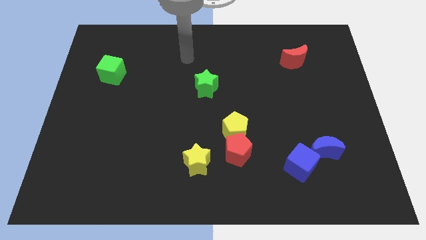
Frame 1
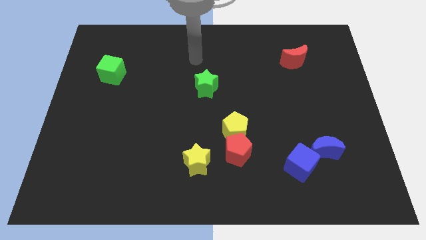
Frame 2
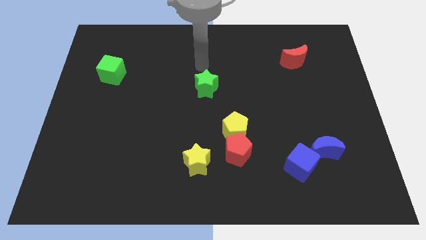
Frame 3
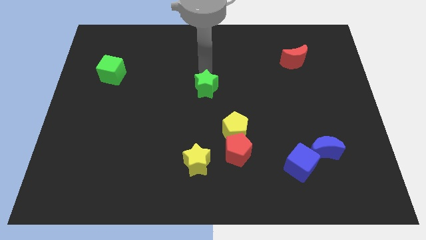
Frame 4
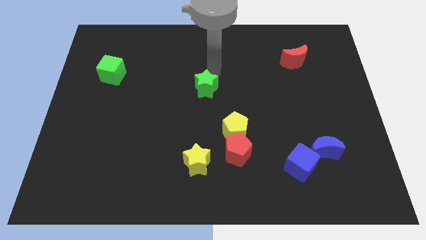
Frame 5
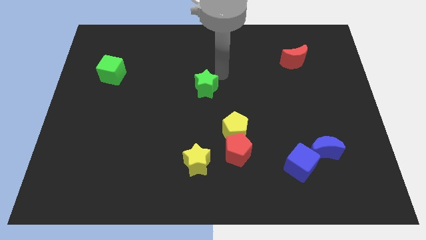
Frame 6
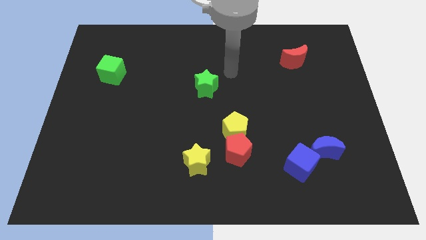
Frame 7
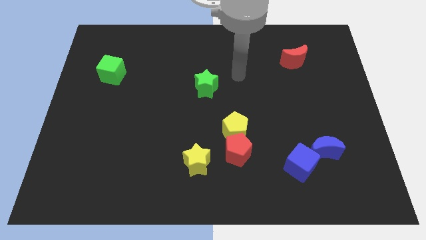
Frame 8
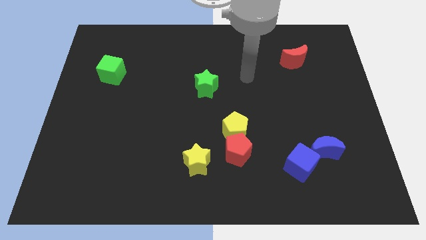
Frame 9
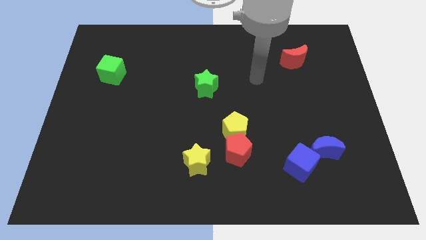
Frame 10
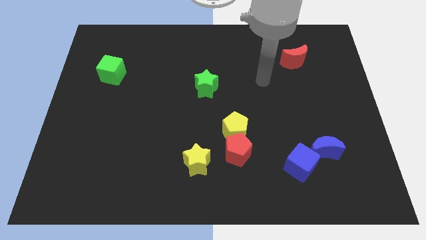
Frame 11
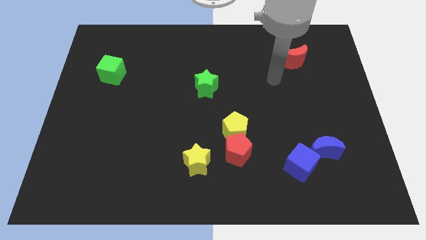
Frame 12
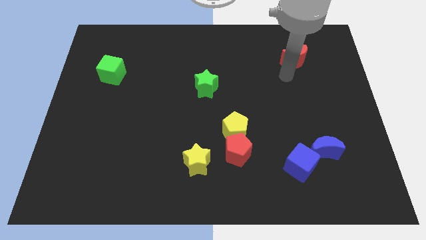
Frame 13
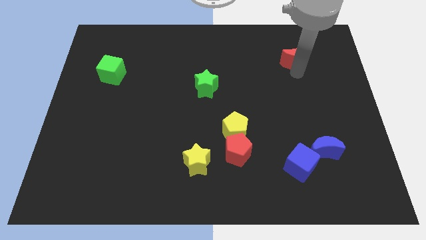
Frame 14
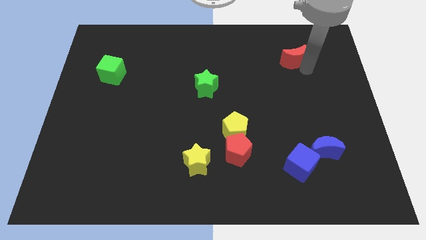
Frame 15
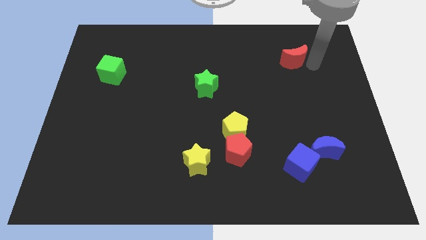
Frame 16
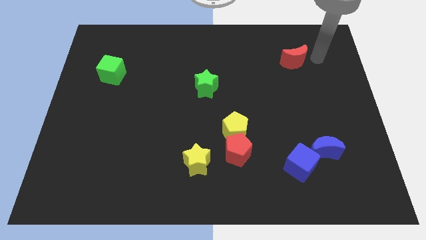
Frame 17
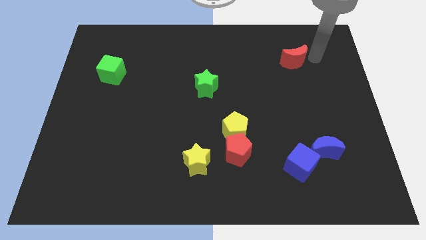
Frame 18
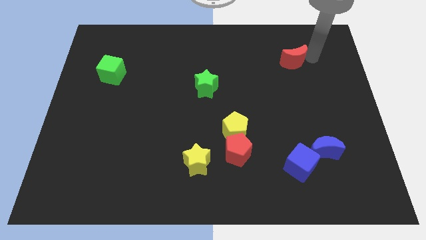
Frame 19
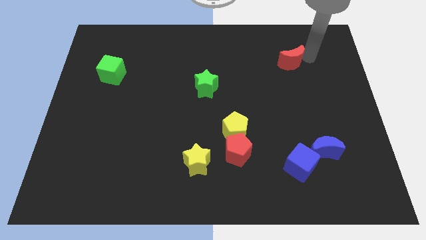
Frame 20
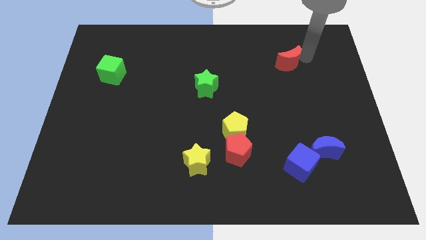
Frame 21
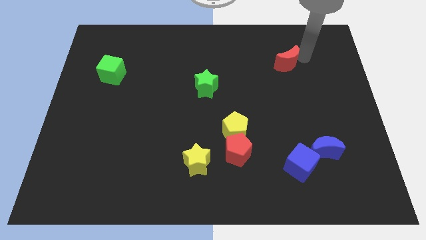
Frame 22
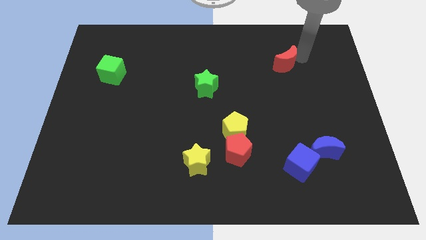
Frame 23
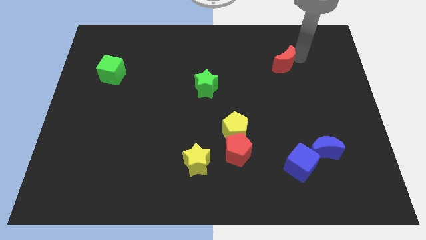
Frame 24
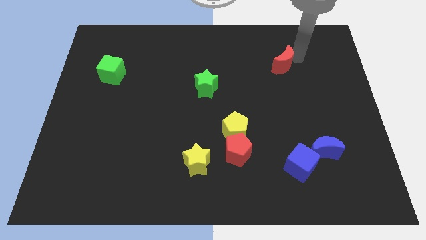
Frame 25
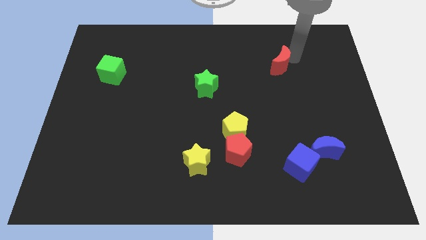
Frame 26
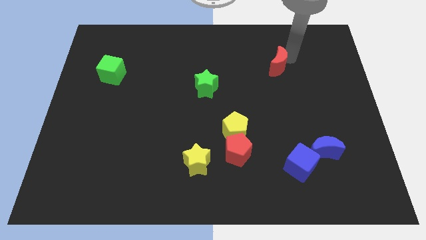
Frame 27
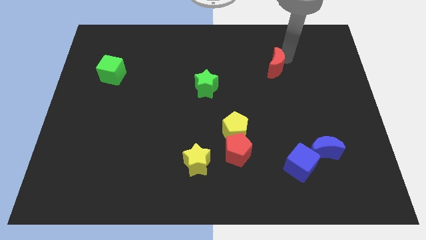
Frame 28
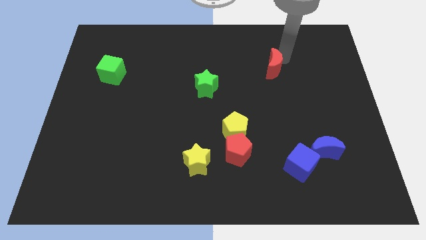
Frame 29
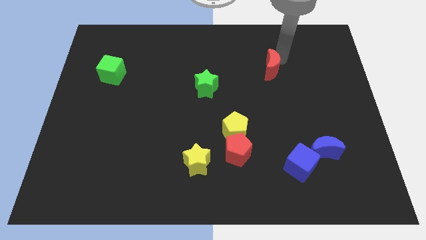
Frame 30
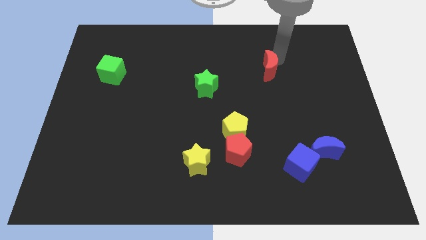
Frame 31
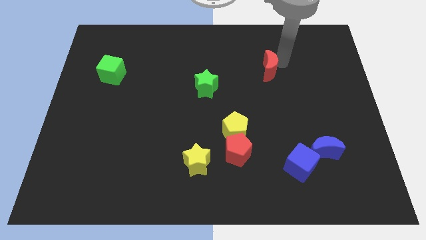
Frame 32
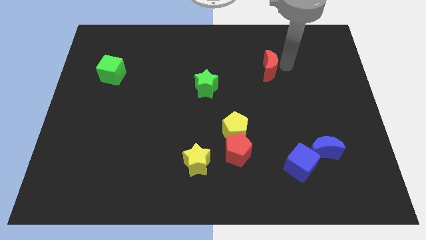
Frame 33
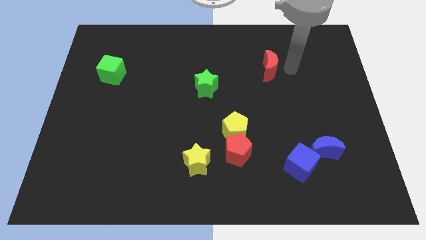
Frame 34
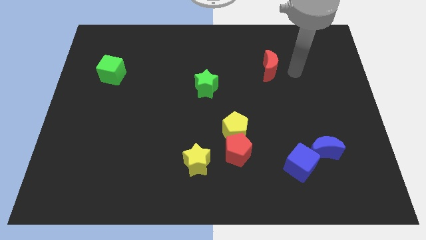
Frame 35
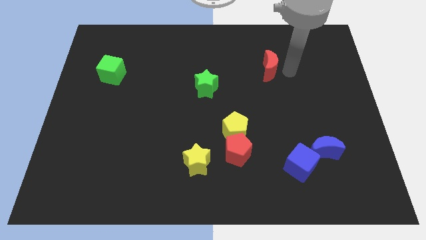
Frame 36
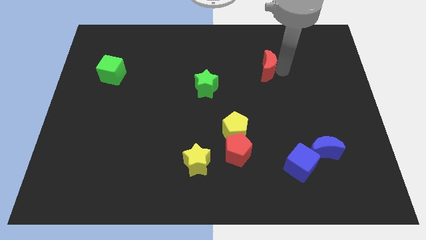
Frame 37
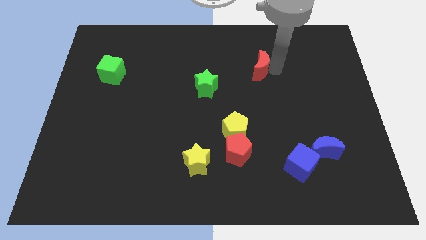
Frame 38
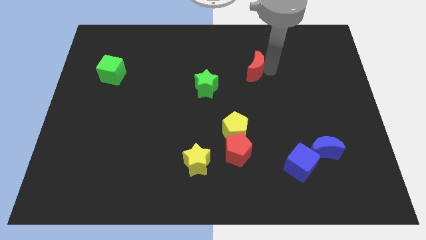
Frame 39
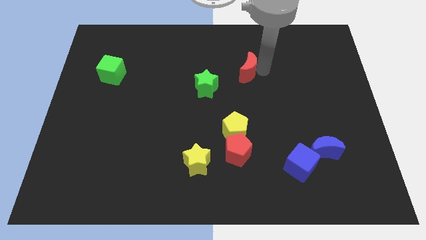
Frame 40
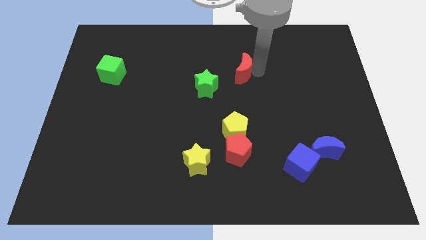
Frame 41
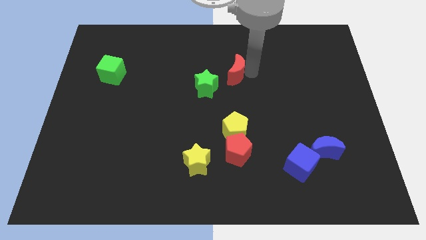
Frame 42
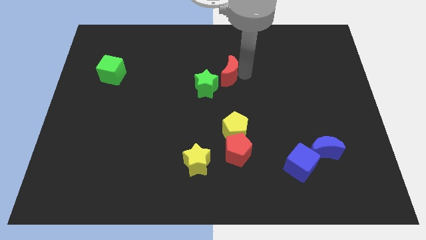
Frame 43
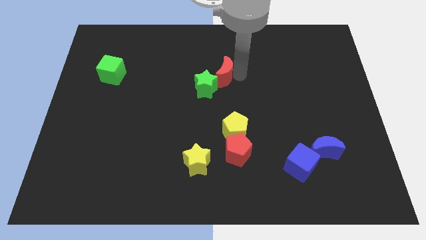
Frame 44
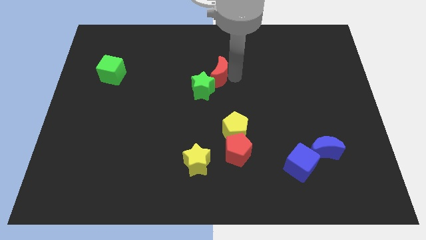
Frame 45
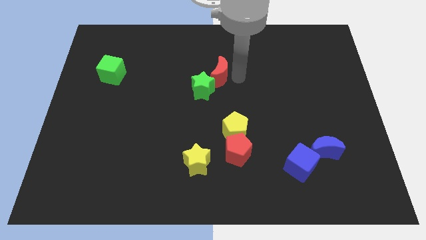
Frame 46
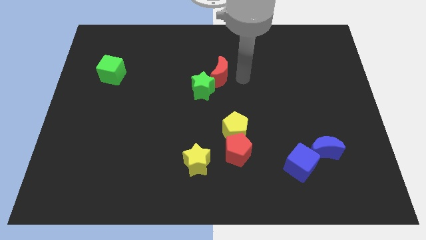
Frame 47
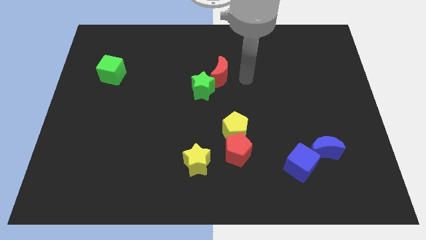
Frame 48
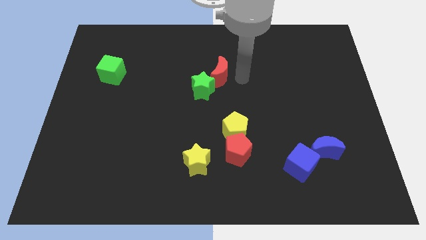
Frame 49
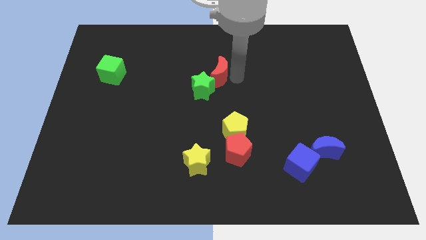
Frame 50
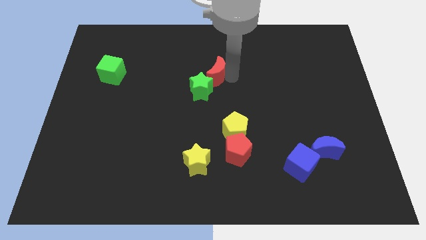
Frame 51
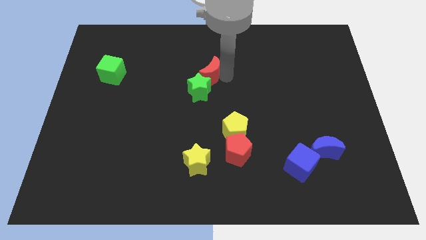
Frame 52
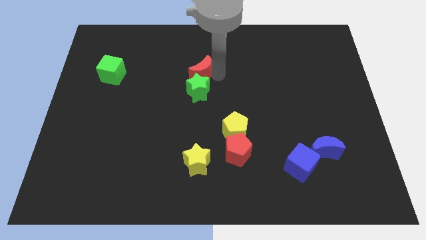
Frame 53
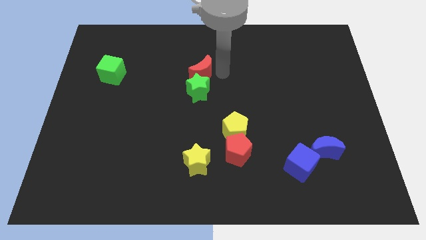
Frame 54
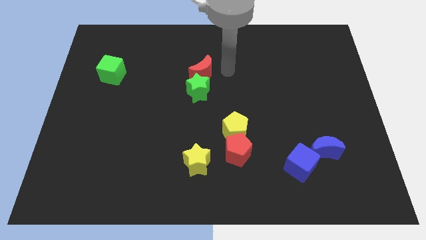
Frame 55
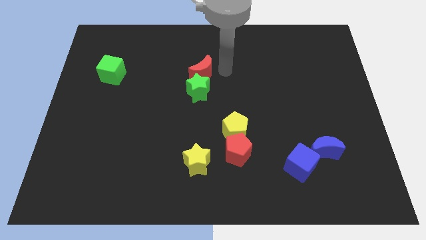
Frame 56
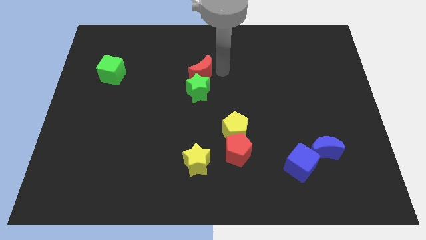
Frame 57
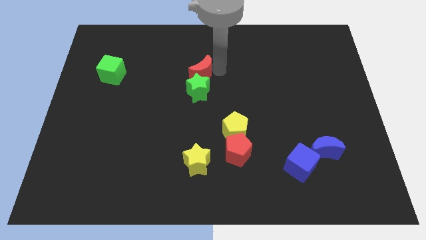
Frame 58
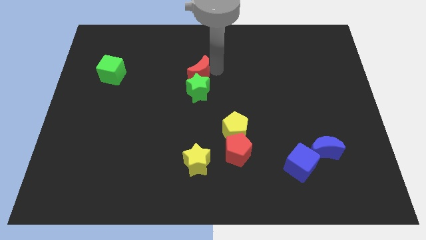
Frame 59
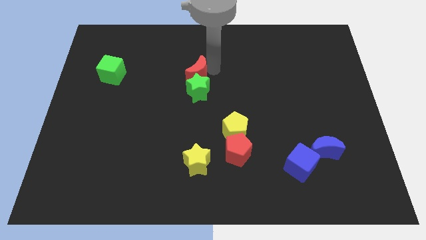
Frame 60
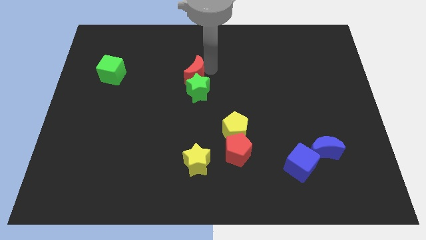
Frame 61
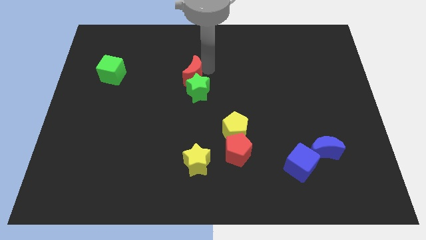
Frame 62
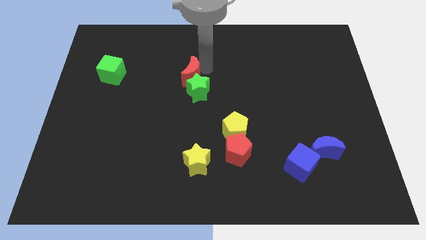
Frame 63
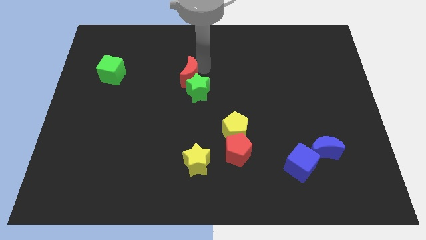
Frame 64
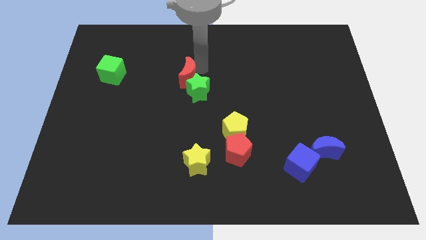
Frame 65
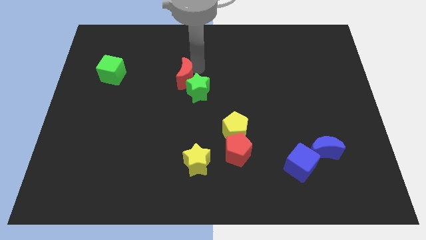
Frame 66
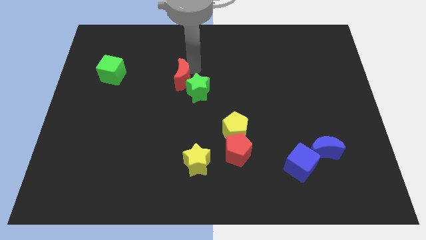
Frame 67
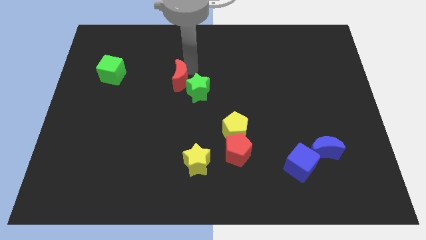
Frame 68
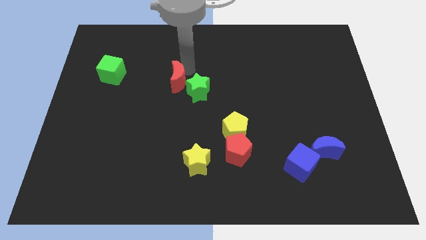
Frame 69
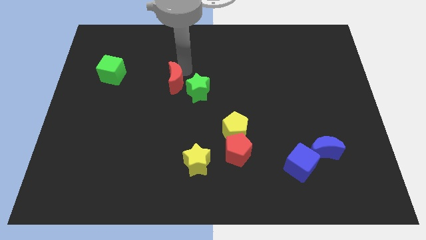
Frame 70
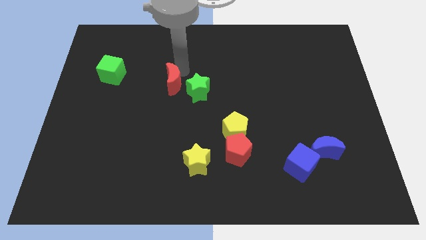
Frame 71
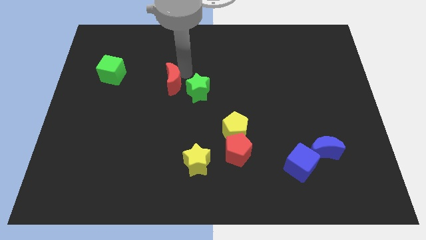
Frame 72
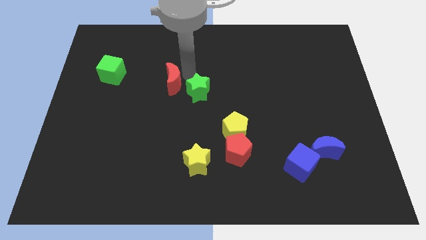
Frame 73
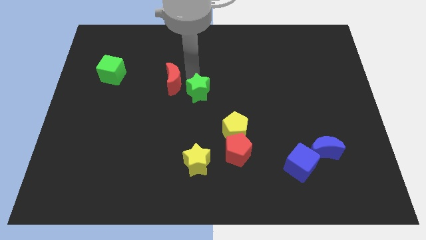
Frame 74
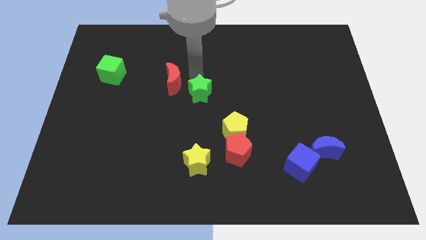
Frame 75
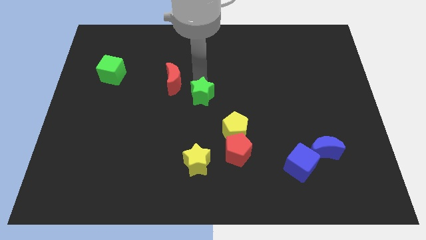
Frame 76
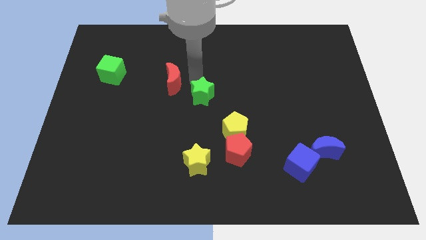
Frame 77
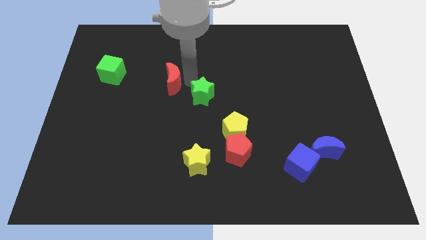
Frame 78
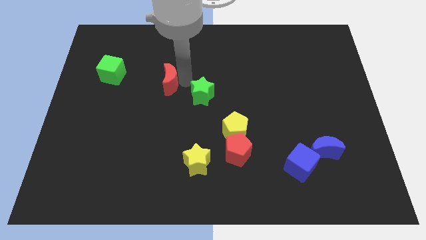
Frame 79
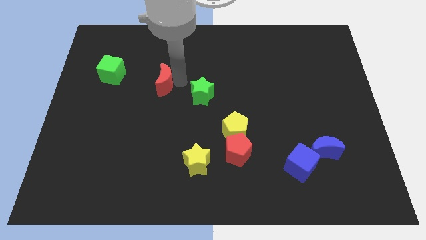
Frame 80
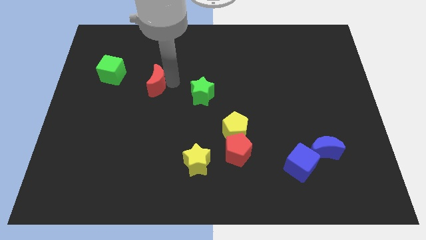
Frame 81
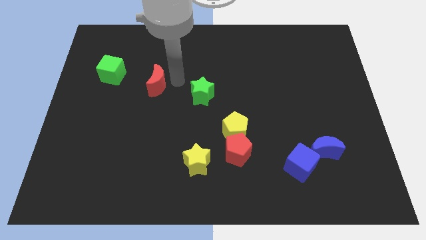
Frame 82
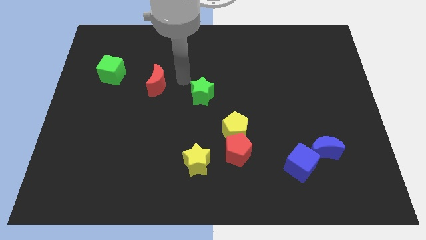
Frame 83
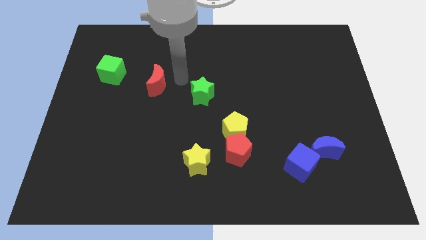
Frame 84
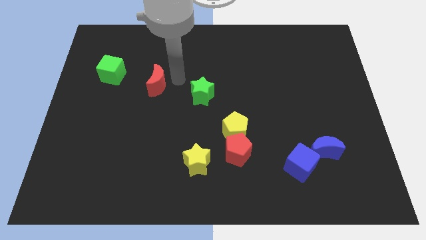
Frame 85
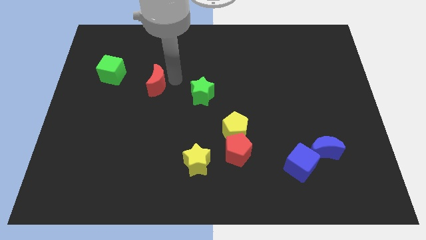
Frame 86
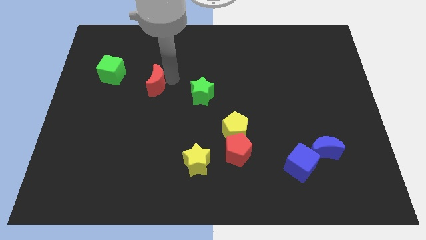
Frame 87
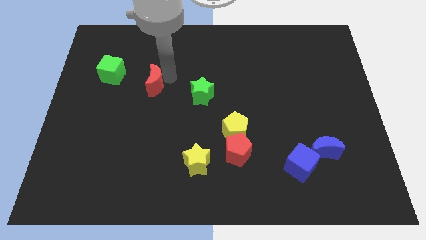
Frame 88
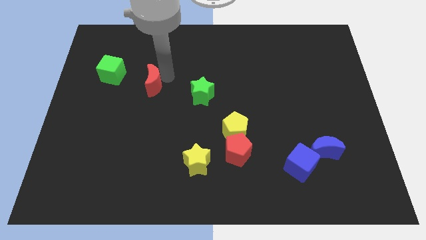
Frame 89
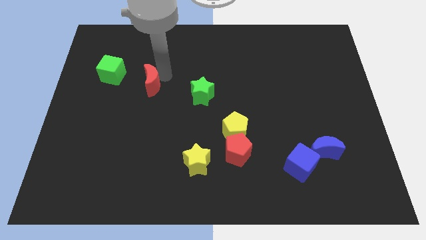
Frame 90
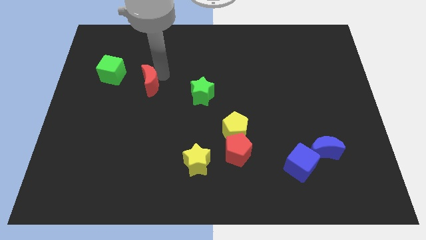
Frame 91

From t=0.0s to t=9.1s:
slide the red moon diagonally down and to the right of the green cube
